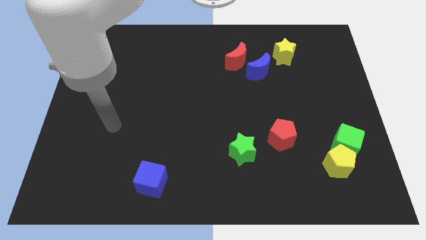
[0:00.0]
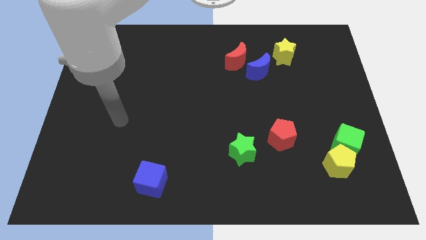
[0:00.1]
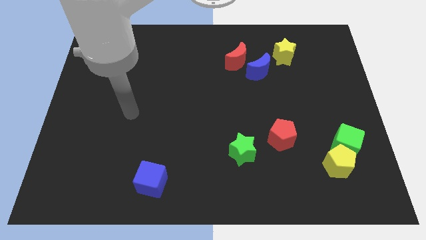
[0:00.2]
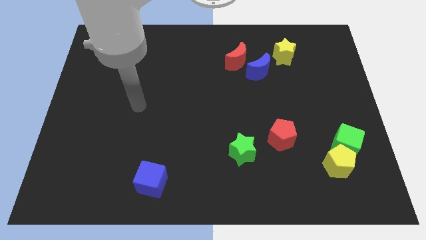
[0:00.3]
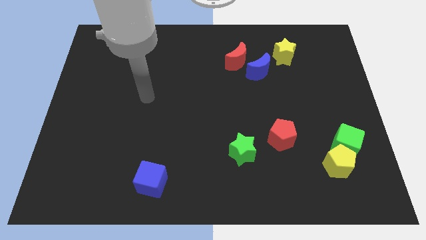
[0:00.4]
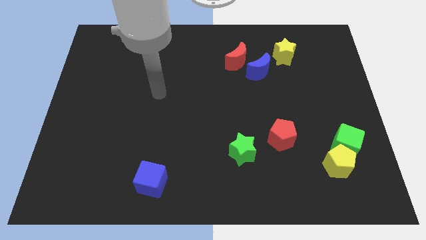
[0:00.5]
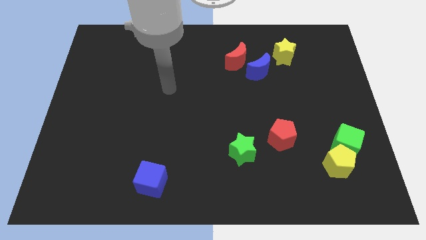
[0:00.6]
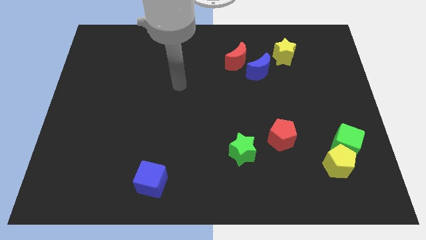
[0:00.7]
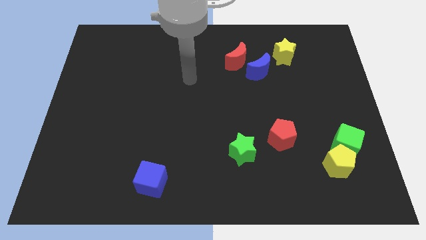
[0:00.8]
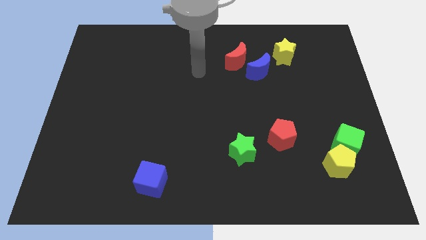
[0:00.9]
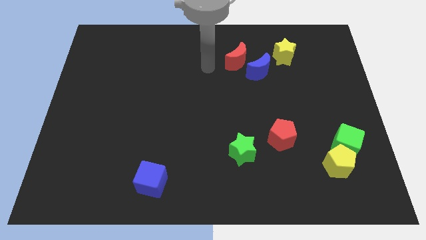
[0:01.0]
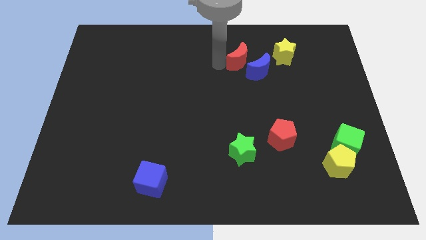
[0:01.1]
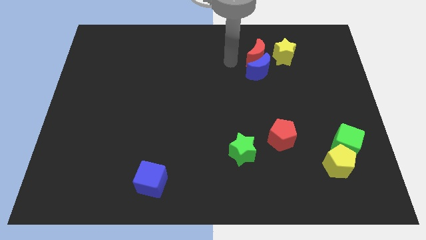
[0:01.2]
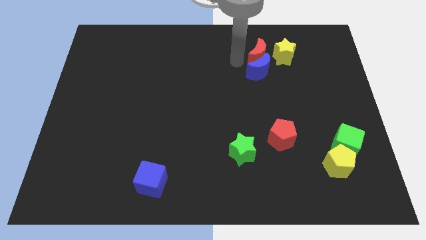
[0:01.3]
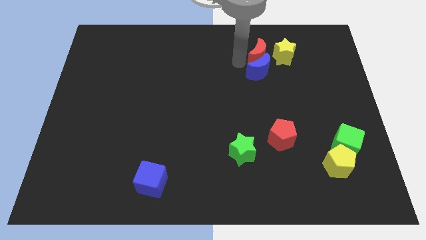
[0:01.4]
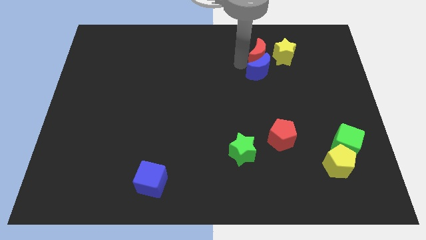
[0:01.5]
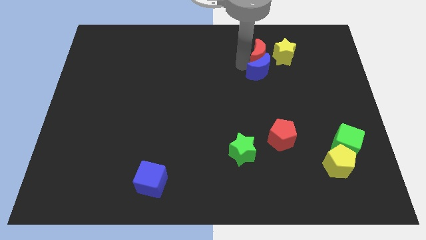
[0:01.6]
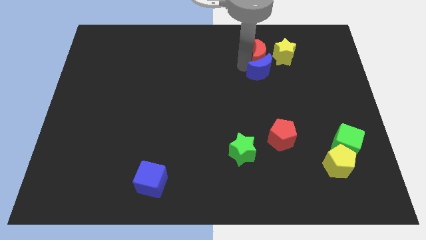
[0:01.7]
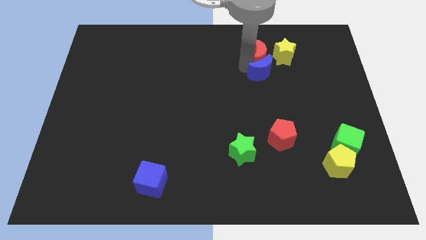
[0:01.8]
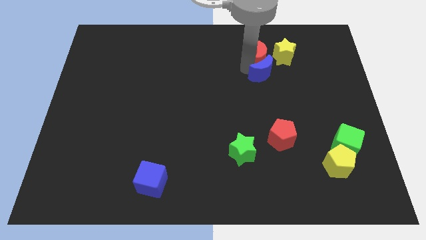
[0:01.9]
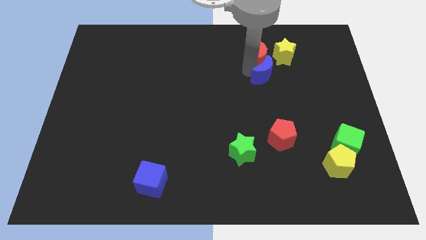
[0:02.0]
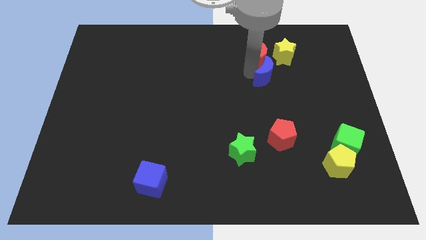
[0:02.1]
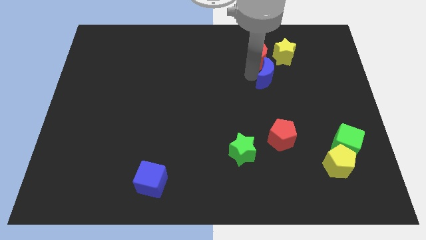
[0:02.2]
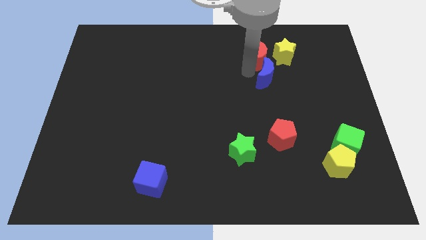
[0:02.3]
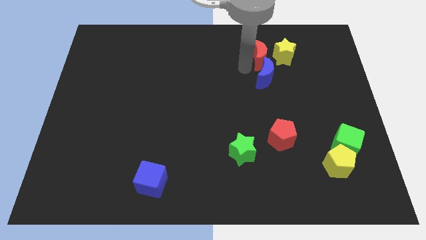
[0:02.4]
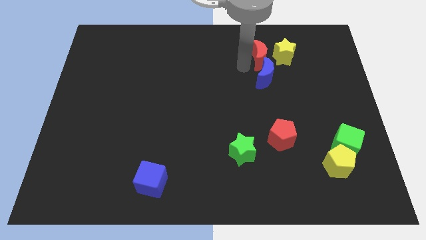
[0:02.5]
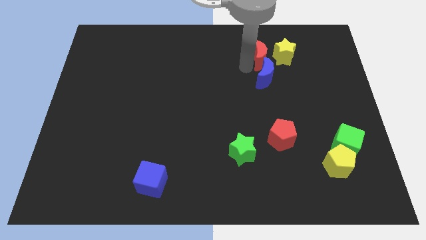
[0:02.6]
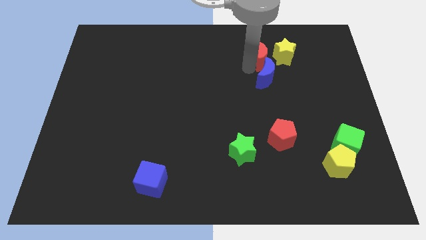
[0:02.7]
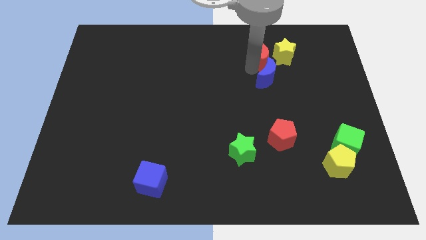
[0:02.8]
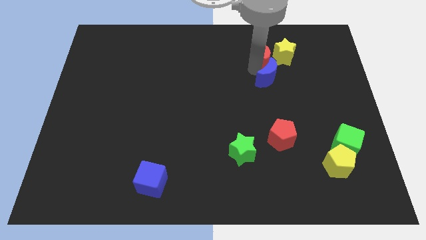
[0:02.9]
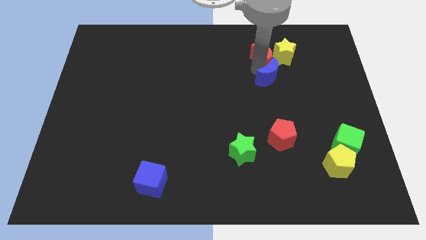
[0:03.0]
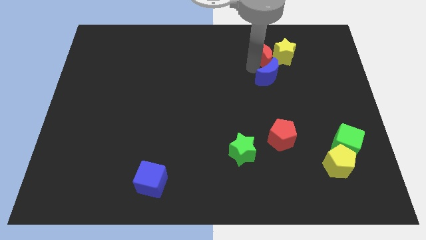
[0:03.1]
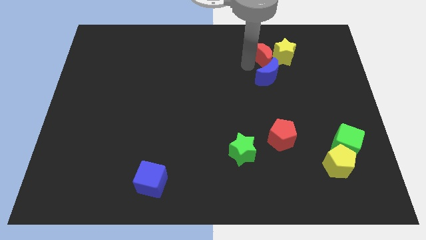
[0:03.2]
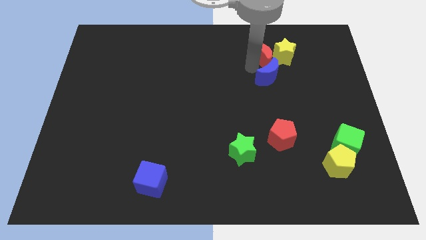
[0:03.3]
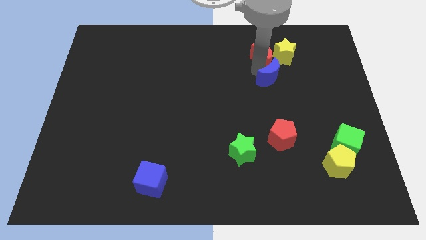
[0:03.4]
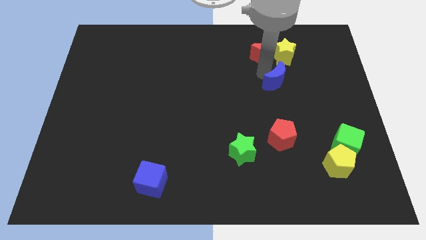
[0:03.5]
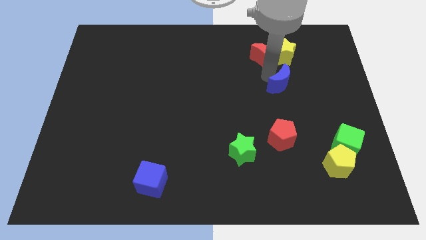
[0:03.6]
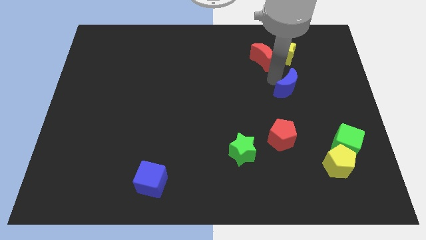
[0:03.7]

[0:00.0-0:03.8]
slide the blue moon downwards and to the right somewhat

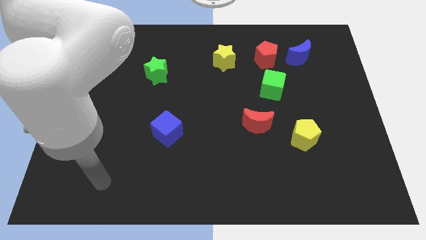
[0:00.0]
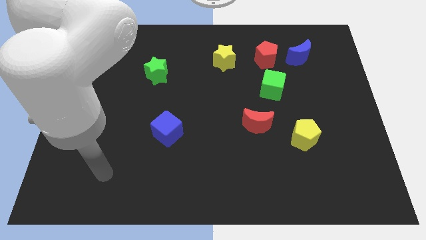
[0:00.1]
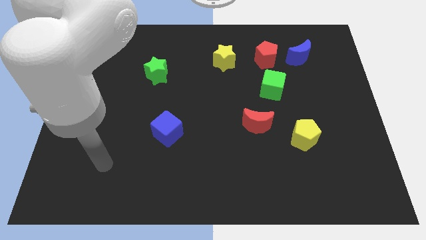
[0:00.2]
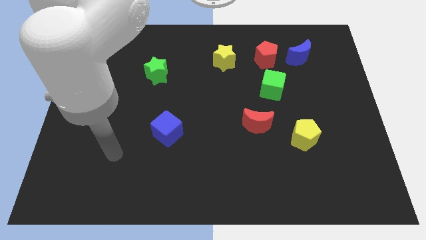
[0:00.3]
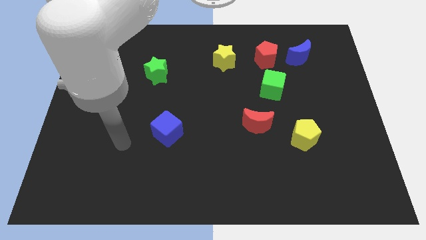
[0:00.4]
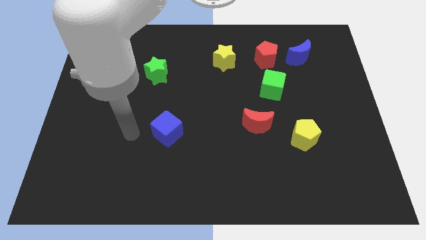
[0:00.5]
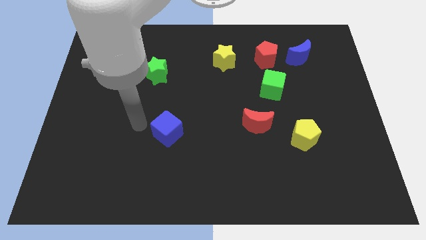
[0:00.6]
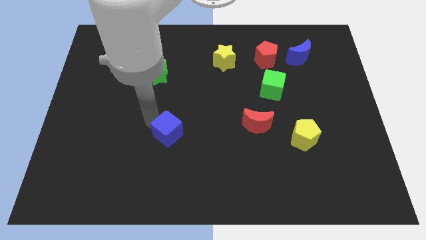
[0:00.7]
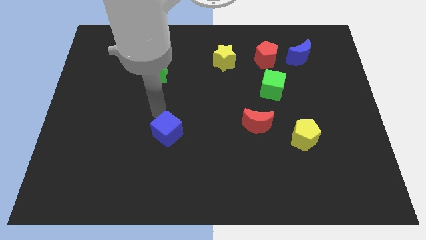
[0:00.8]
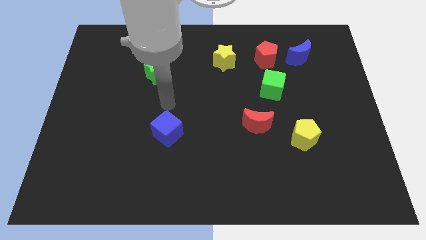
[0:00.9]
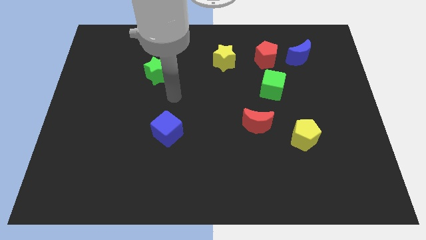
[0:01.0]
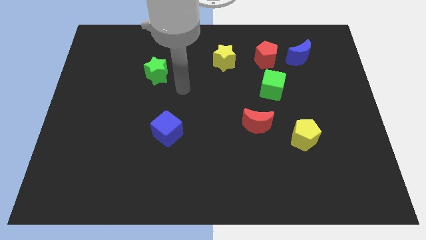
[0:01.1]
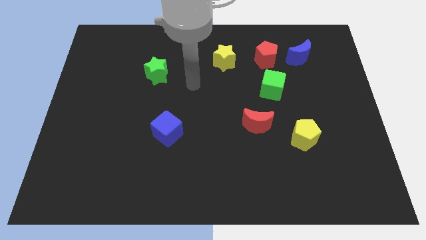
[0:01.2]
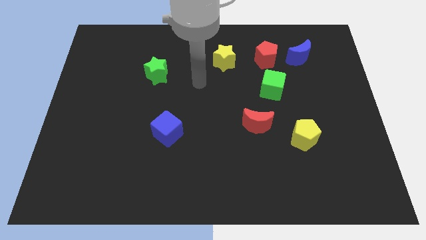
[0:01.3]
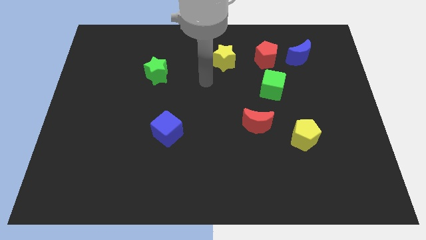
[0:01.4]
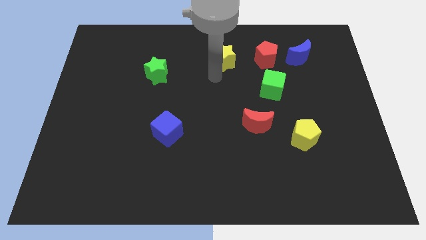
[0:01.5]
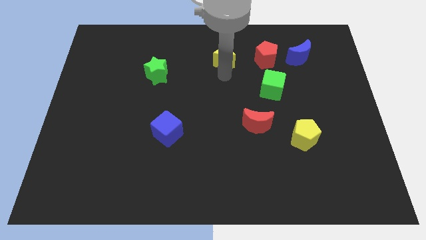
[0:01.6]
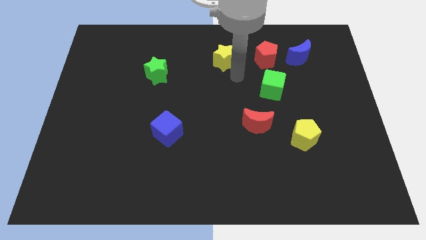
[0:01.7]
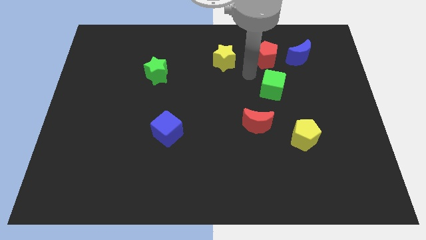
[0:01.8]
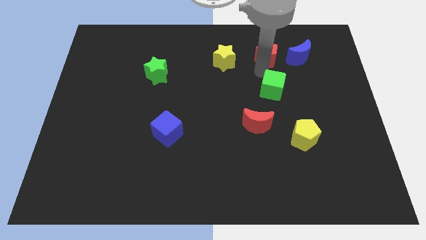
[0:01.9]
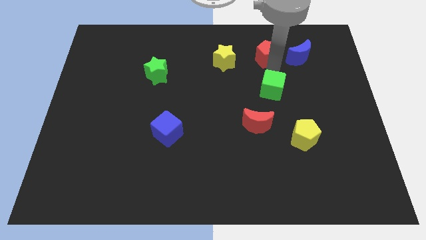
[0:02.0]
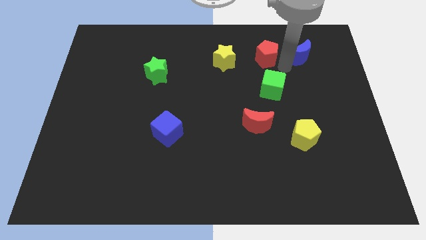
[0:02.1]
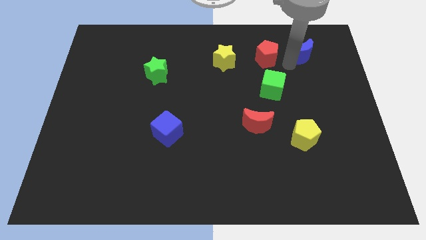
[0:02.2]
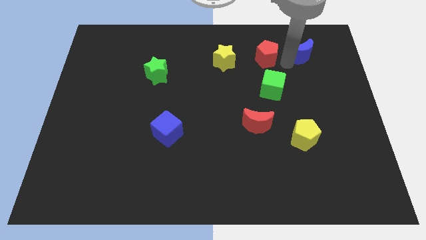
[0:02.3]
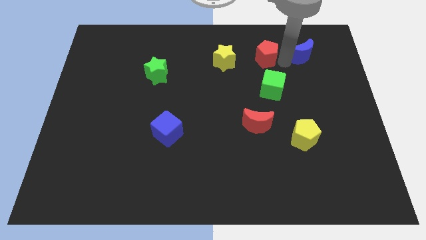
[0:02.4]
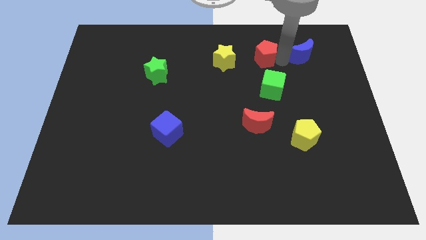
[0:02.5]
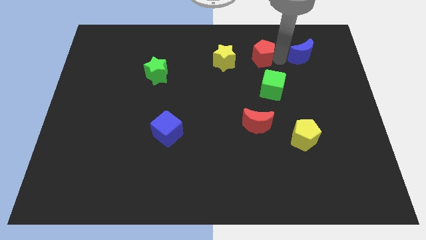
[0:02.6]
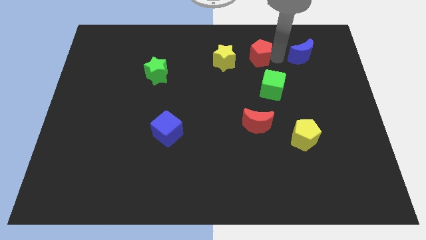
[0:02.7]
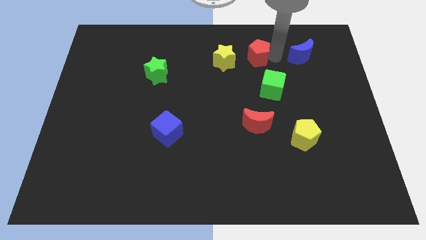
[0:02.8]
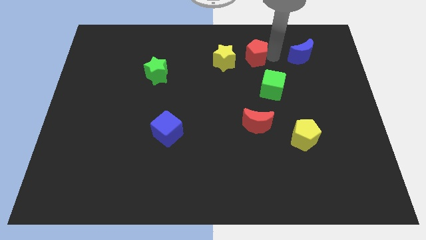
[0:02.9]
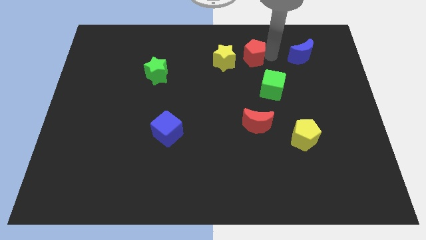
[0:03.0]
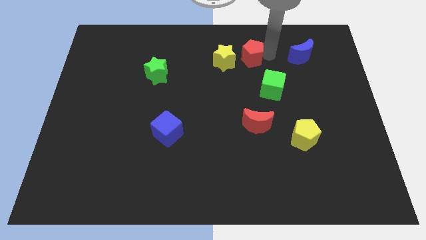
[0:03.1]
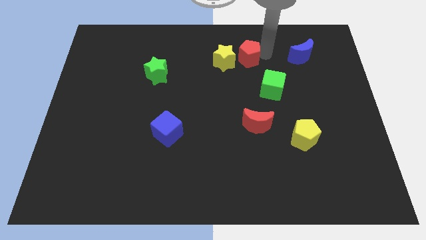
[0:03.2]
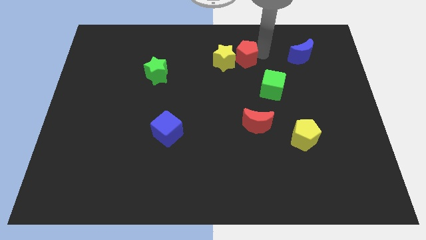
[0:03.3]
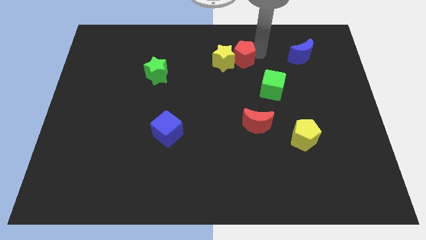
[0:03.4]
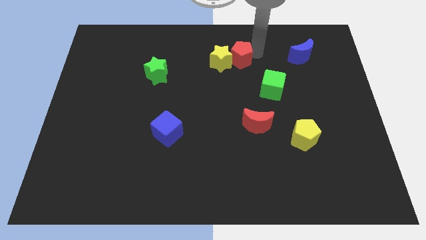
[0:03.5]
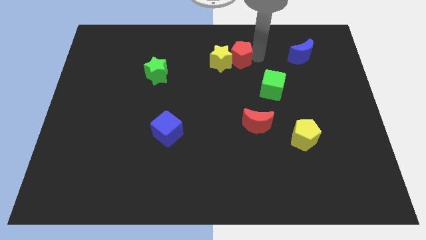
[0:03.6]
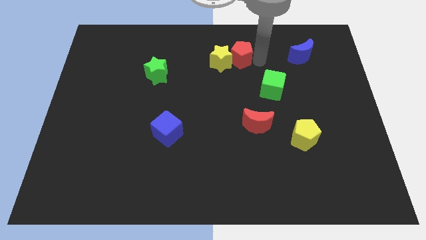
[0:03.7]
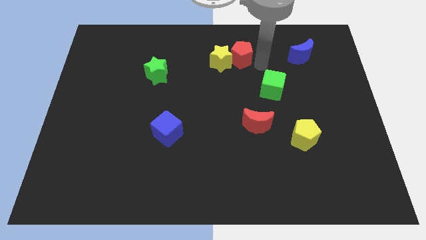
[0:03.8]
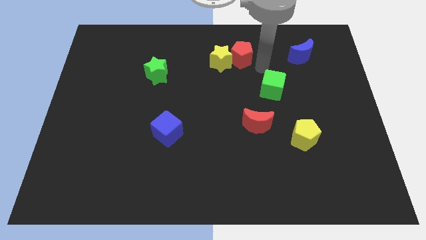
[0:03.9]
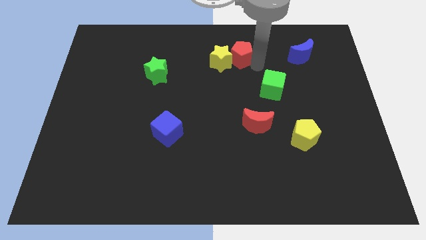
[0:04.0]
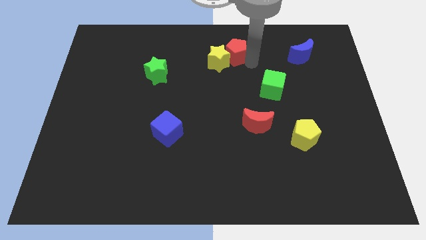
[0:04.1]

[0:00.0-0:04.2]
slightly slide the red pentagon left

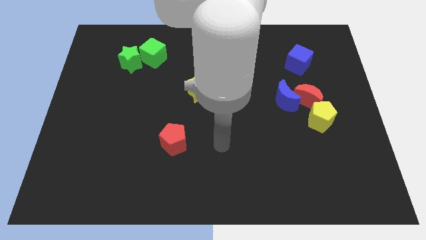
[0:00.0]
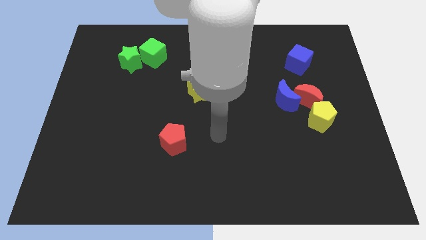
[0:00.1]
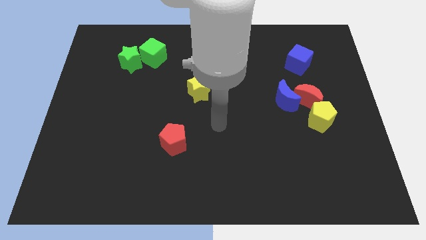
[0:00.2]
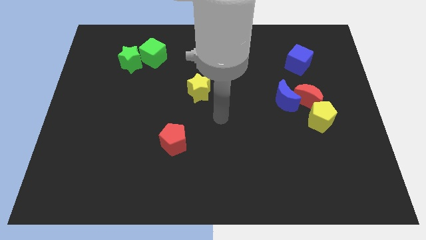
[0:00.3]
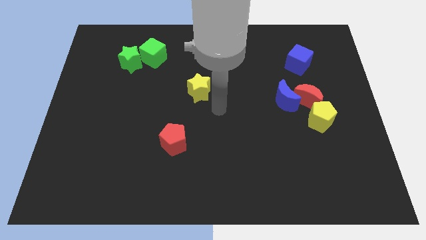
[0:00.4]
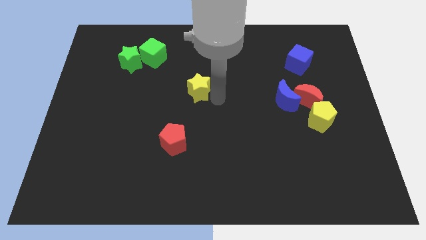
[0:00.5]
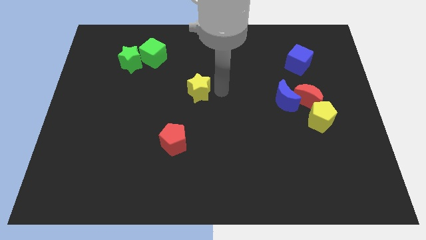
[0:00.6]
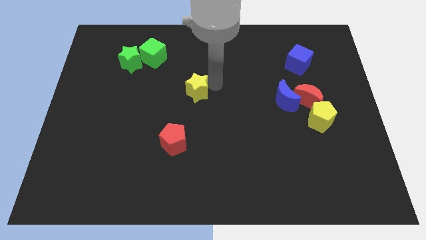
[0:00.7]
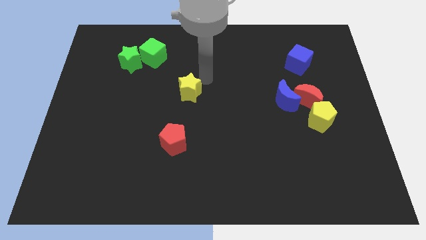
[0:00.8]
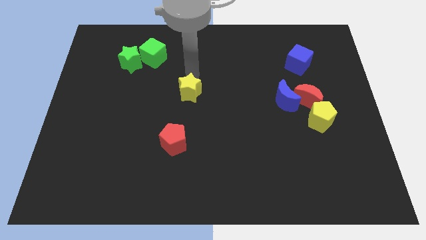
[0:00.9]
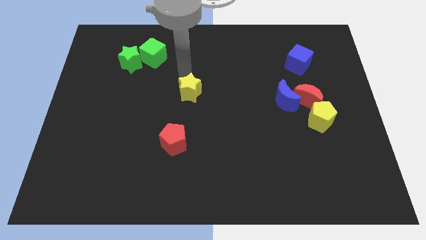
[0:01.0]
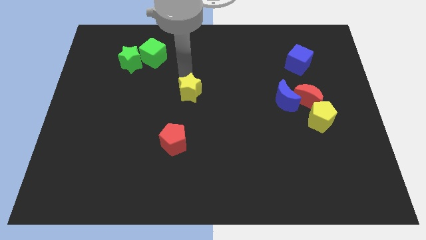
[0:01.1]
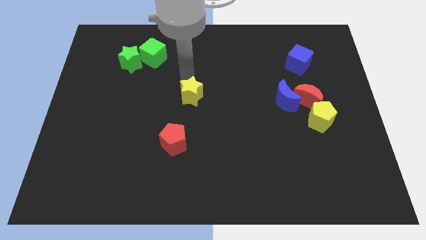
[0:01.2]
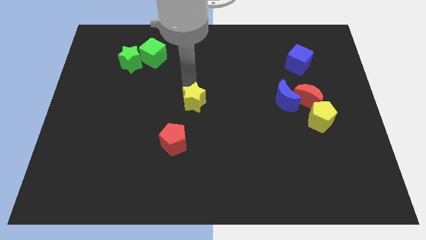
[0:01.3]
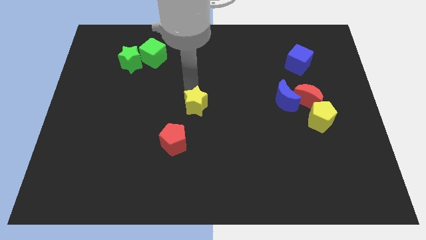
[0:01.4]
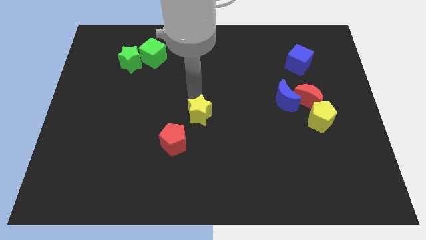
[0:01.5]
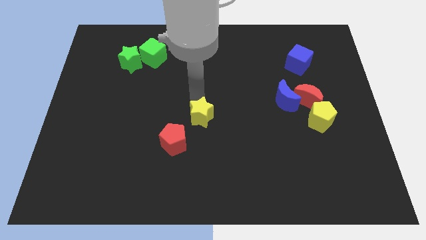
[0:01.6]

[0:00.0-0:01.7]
slightly move the yellow star down
